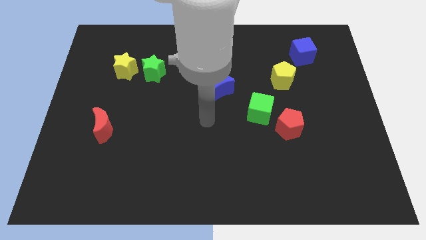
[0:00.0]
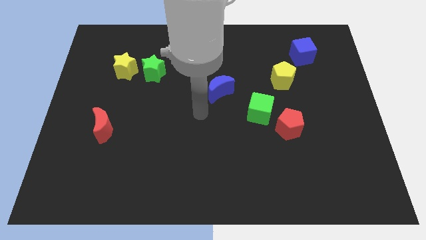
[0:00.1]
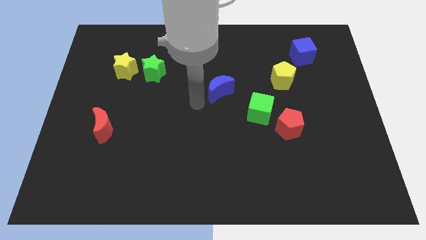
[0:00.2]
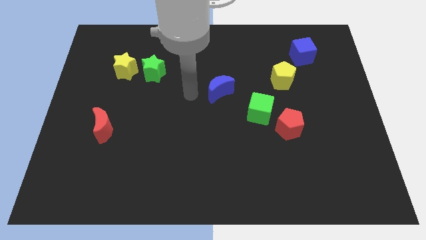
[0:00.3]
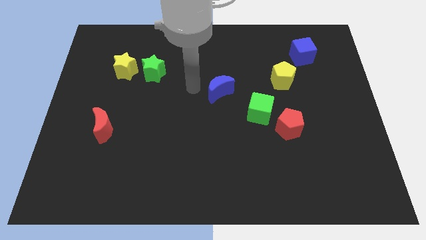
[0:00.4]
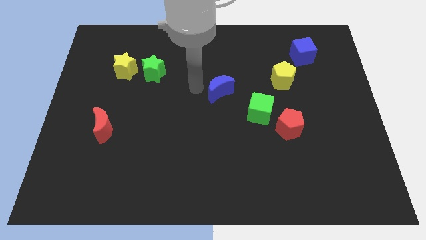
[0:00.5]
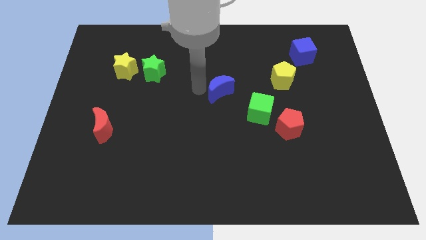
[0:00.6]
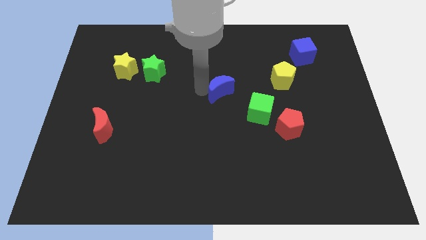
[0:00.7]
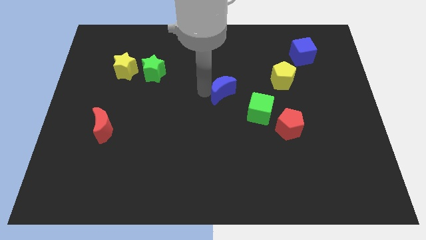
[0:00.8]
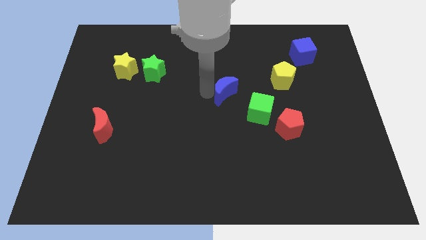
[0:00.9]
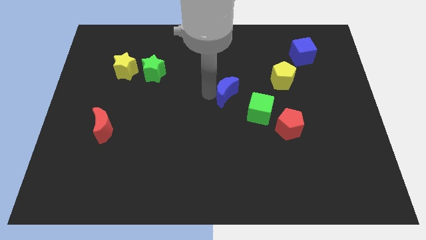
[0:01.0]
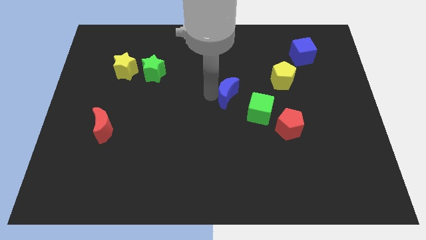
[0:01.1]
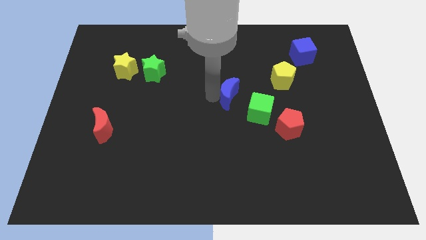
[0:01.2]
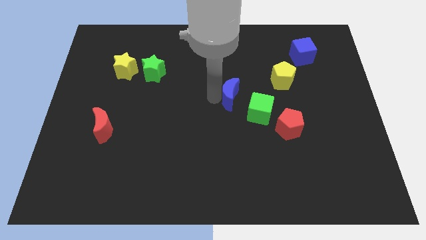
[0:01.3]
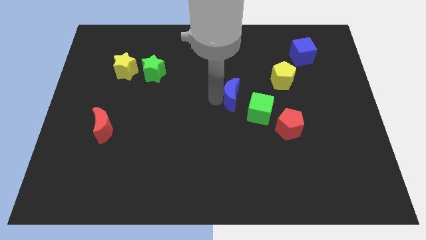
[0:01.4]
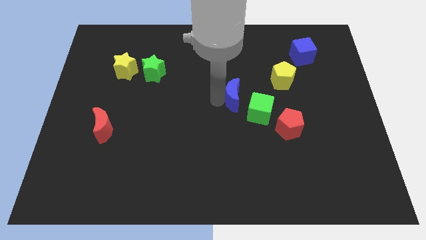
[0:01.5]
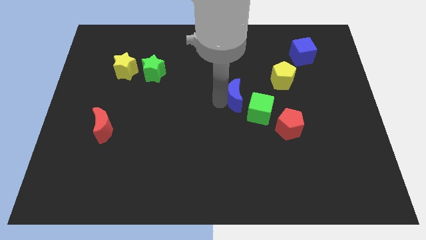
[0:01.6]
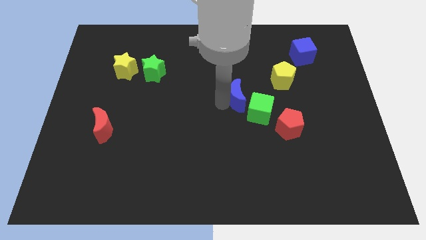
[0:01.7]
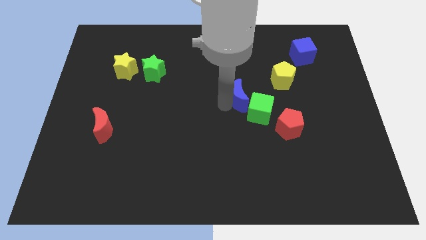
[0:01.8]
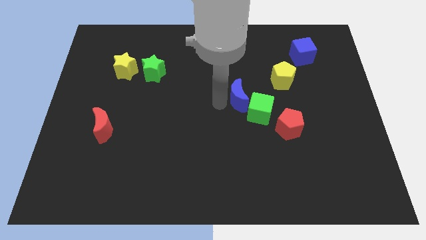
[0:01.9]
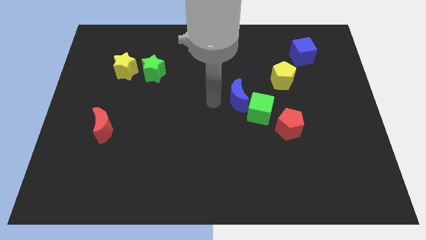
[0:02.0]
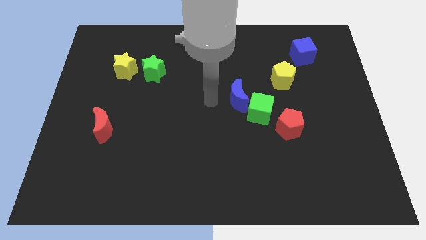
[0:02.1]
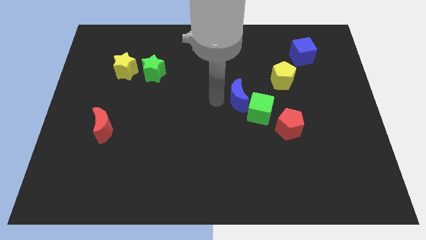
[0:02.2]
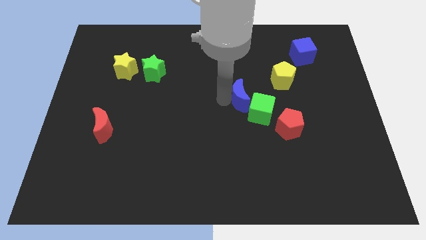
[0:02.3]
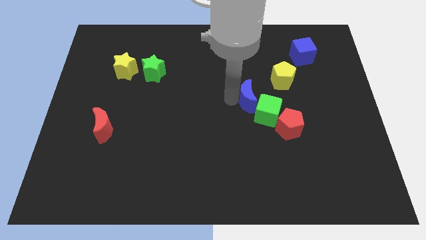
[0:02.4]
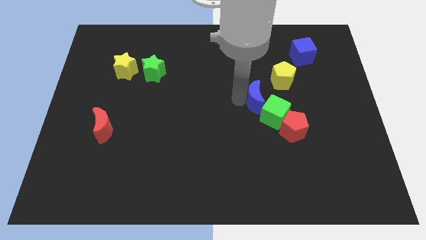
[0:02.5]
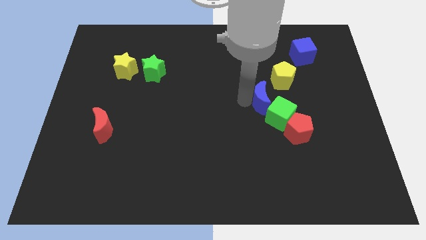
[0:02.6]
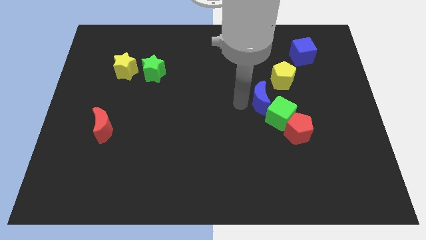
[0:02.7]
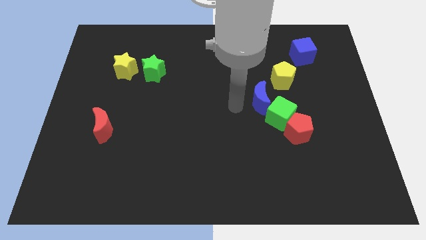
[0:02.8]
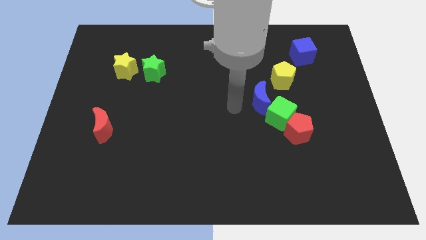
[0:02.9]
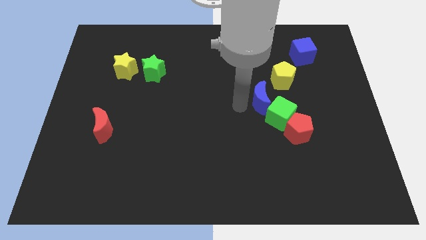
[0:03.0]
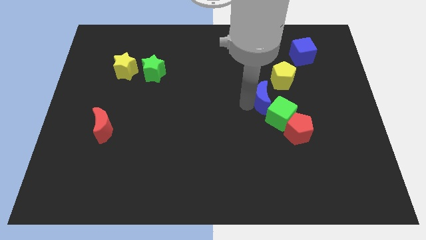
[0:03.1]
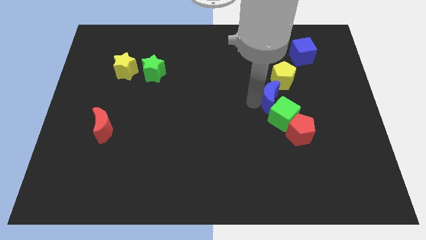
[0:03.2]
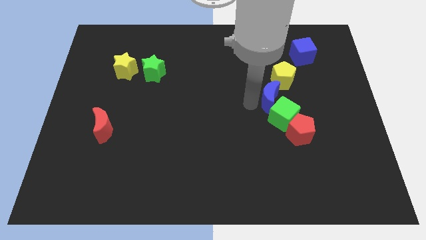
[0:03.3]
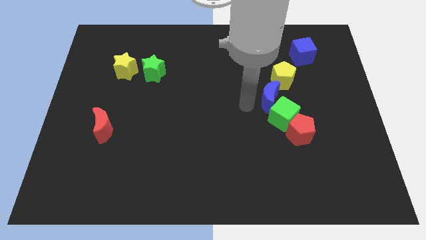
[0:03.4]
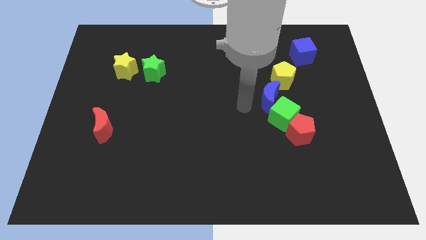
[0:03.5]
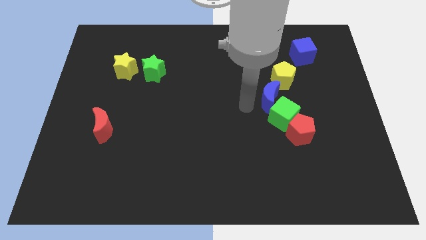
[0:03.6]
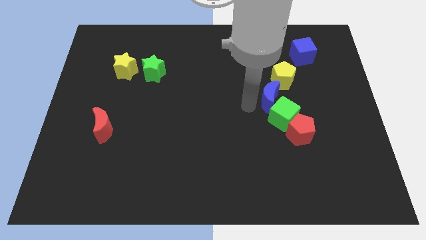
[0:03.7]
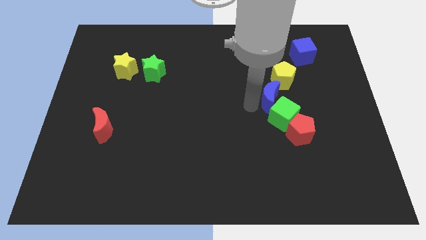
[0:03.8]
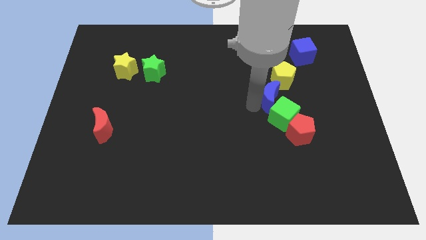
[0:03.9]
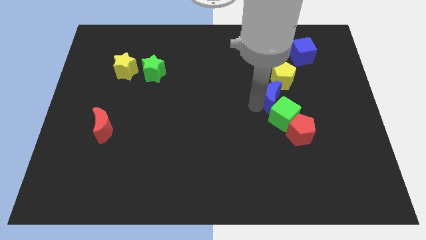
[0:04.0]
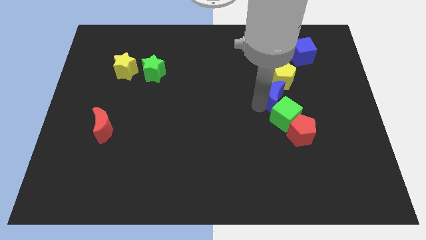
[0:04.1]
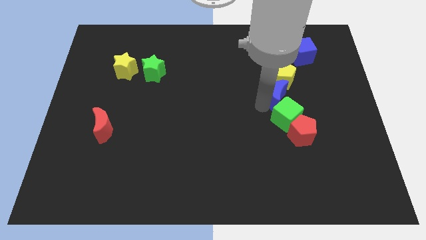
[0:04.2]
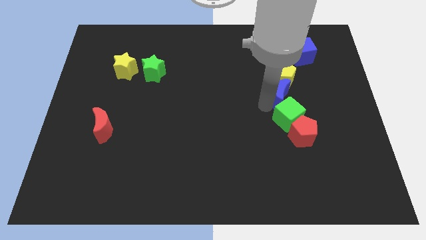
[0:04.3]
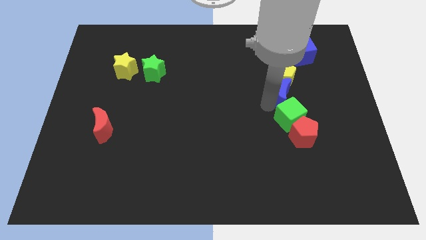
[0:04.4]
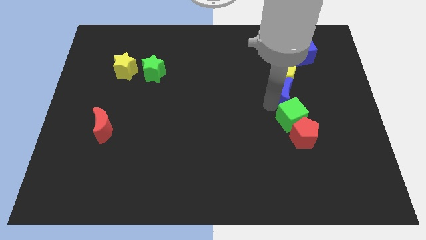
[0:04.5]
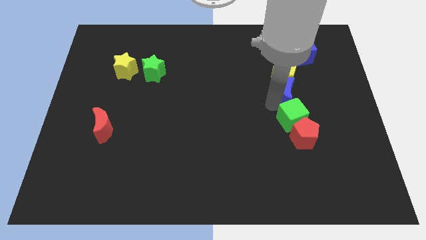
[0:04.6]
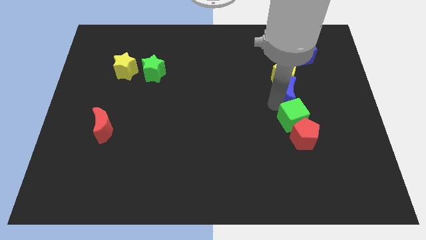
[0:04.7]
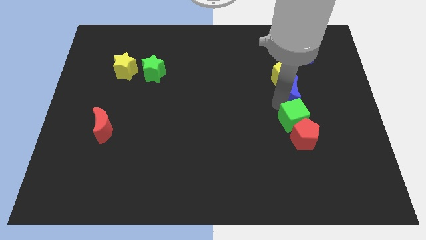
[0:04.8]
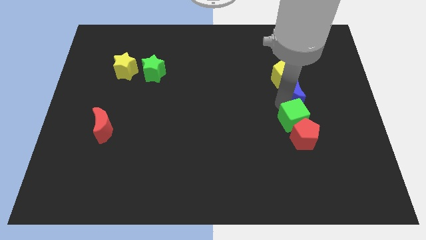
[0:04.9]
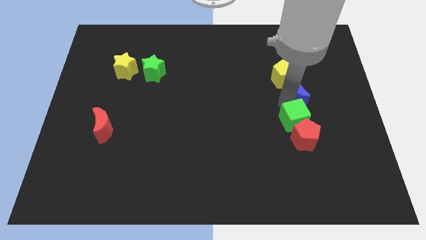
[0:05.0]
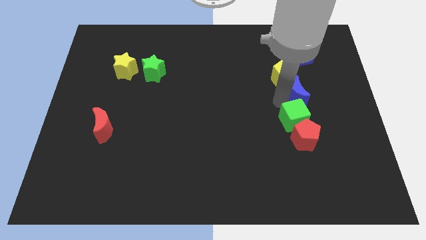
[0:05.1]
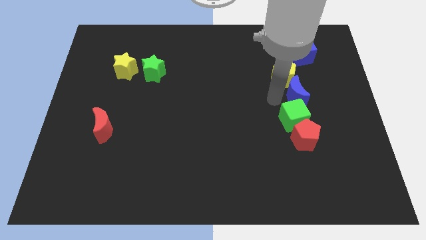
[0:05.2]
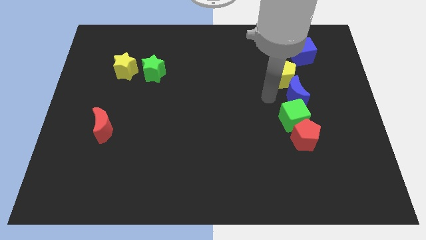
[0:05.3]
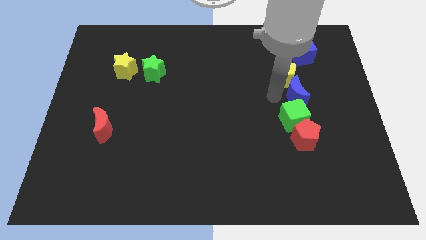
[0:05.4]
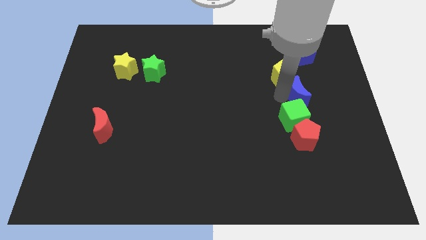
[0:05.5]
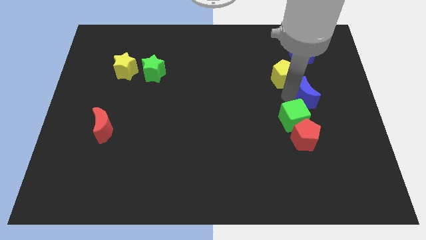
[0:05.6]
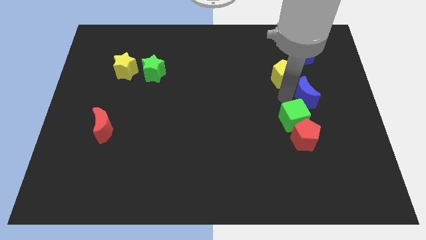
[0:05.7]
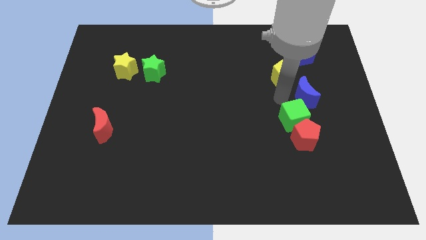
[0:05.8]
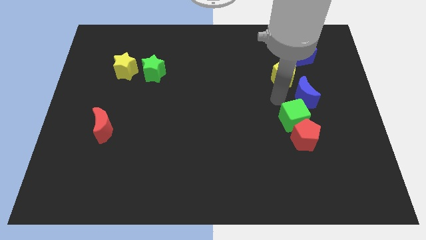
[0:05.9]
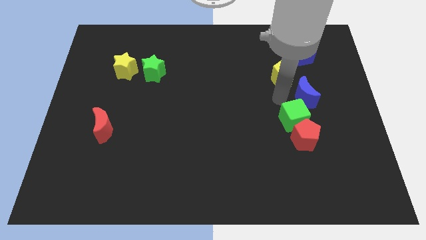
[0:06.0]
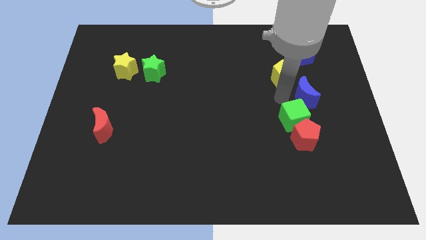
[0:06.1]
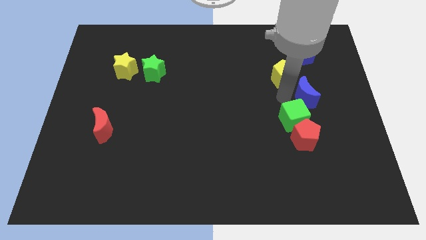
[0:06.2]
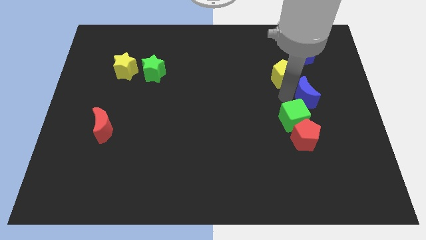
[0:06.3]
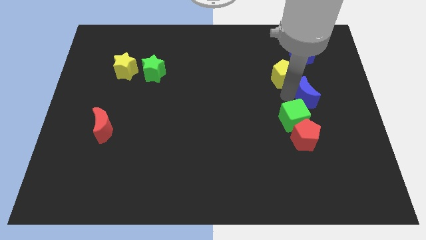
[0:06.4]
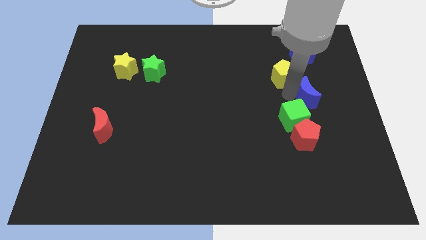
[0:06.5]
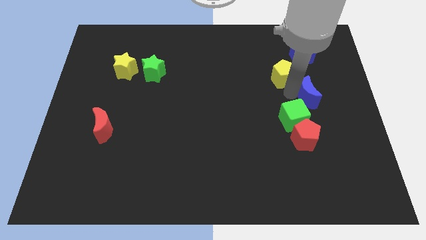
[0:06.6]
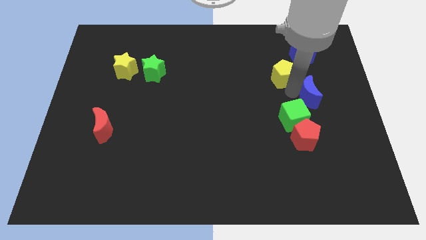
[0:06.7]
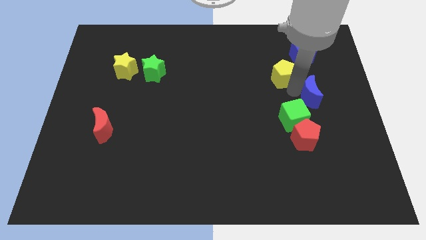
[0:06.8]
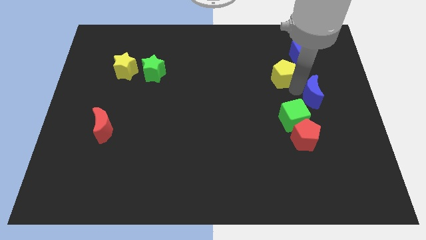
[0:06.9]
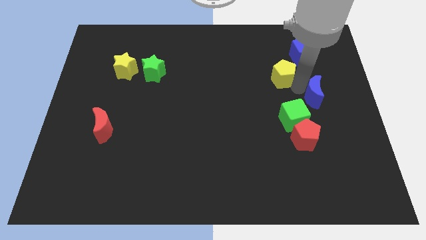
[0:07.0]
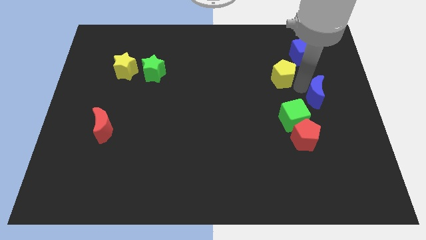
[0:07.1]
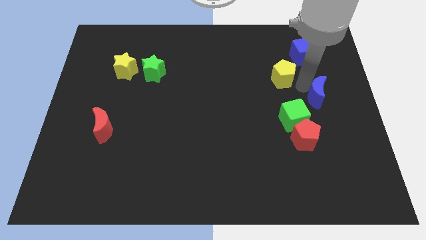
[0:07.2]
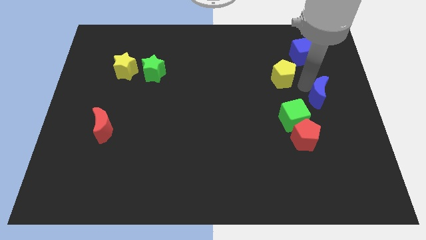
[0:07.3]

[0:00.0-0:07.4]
push the blue moon to the center right
